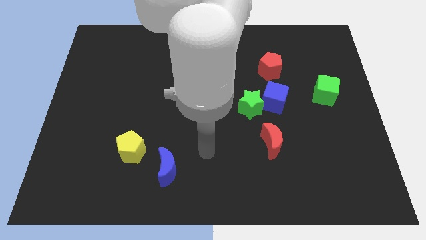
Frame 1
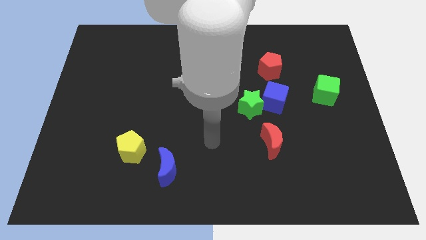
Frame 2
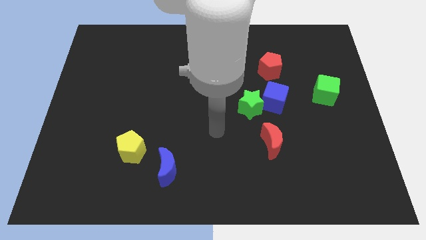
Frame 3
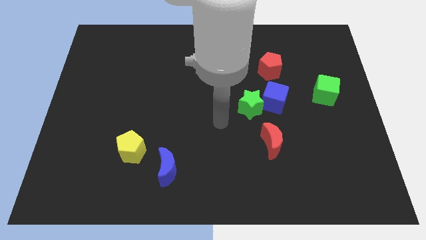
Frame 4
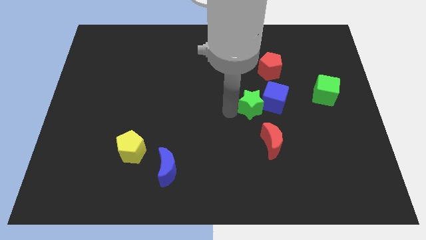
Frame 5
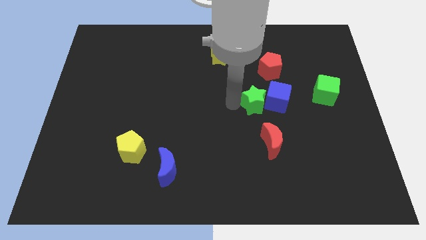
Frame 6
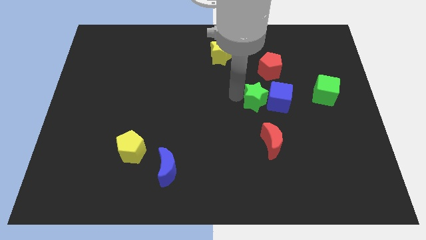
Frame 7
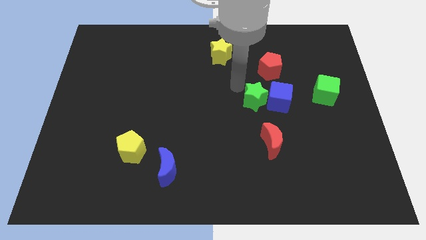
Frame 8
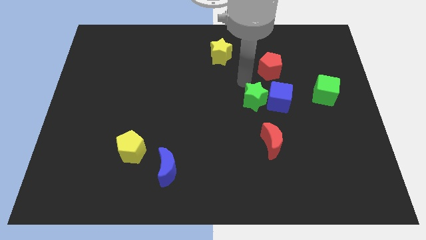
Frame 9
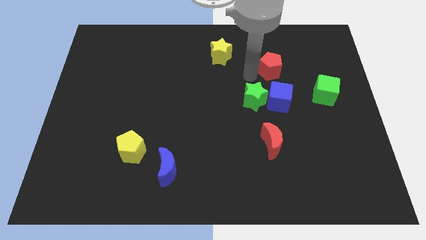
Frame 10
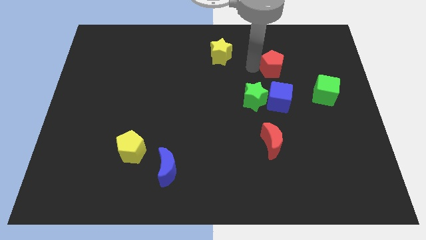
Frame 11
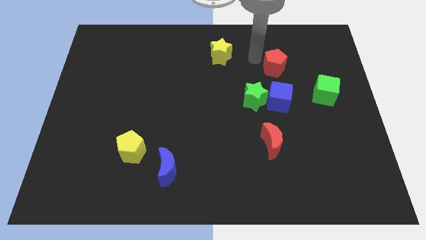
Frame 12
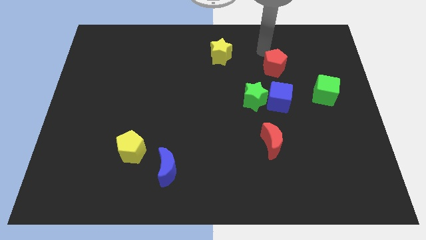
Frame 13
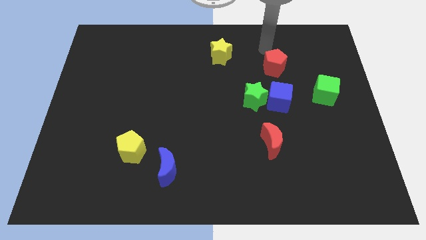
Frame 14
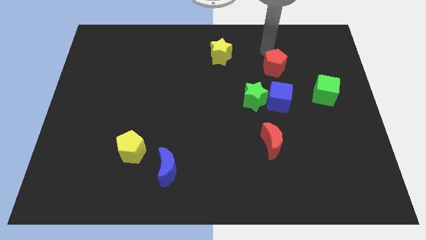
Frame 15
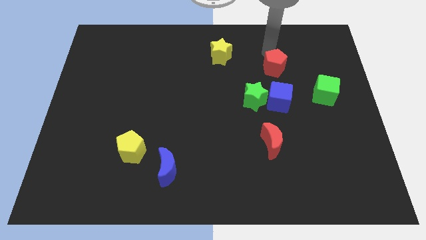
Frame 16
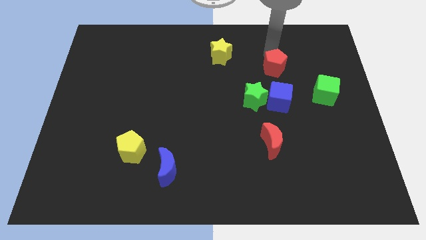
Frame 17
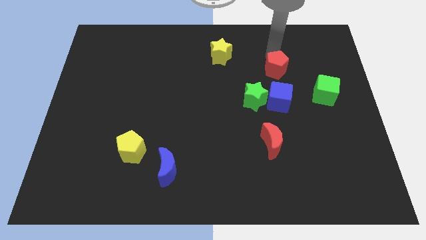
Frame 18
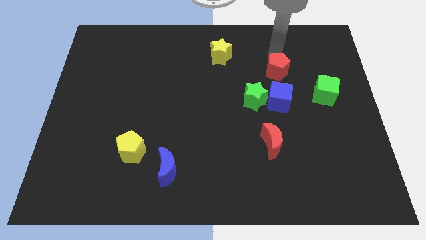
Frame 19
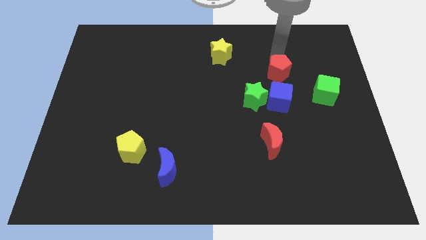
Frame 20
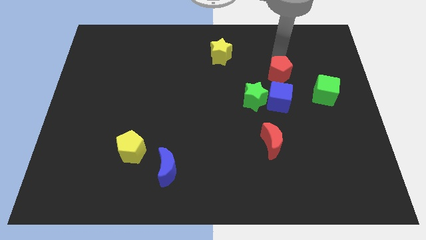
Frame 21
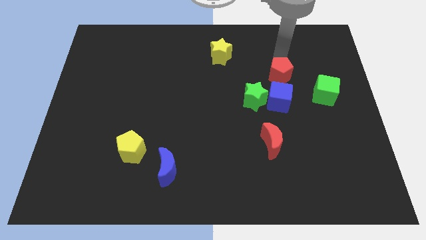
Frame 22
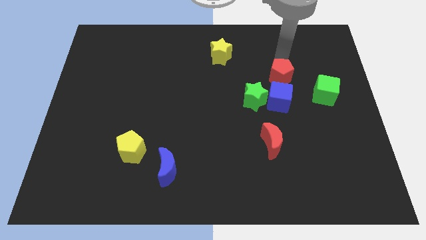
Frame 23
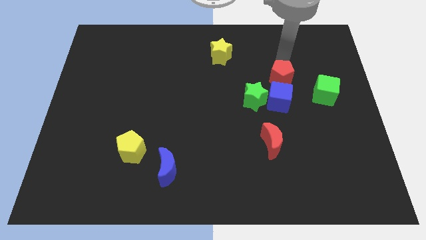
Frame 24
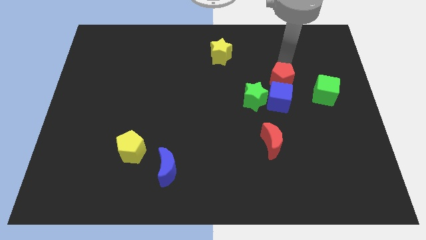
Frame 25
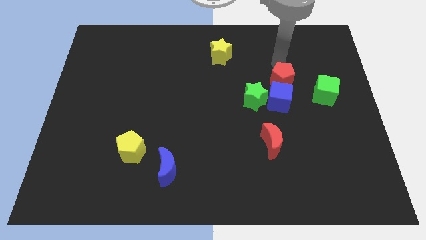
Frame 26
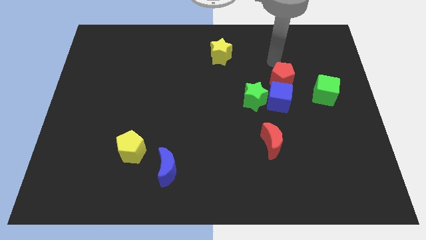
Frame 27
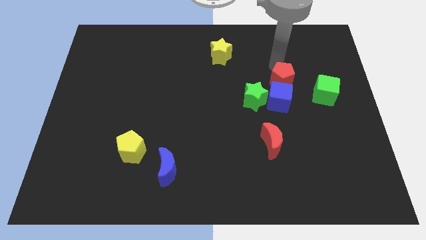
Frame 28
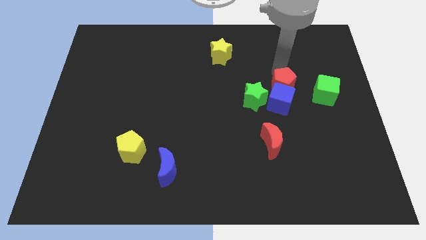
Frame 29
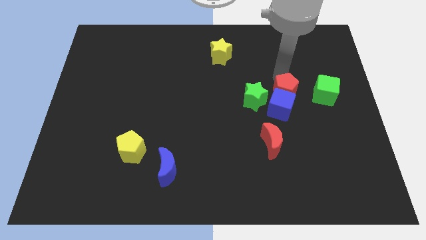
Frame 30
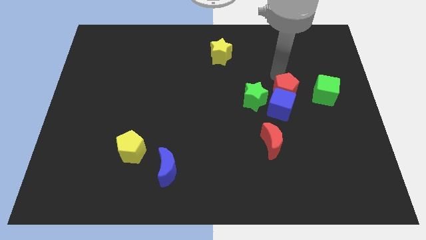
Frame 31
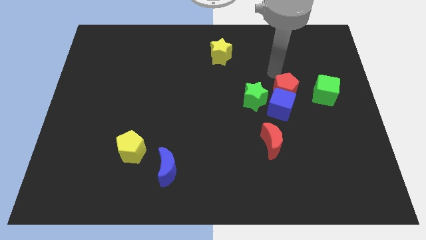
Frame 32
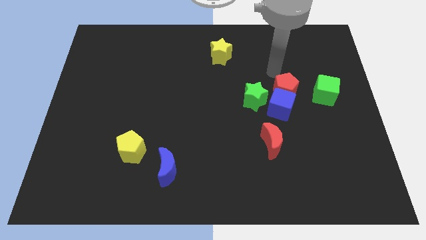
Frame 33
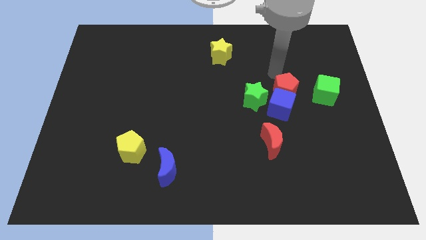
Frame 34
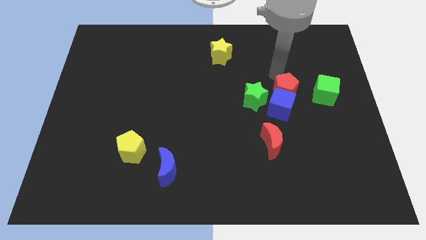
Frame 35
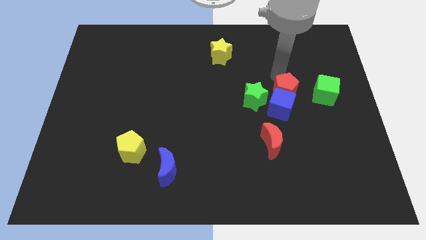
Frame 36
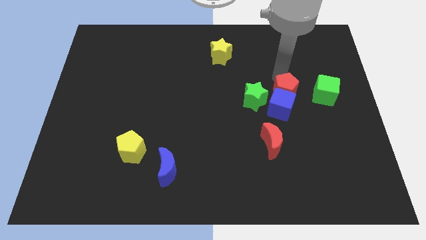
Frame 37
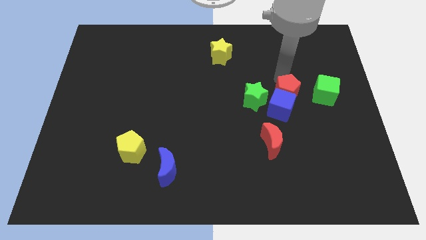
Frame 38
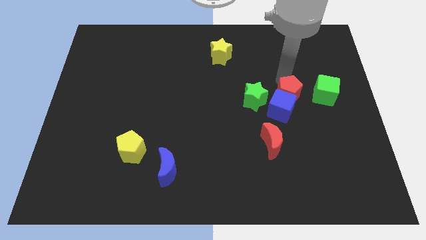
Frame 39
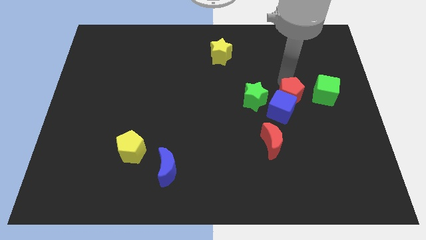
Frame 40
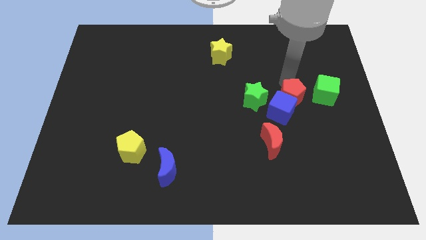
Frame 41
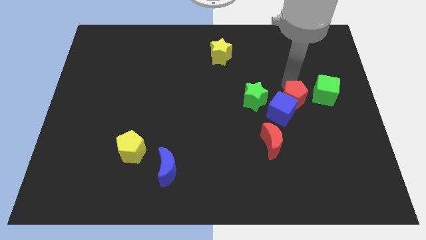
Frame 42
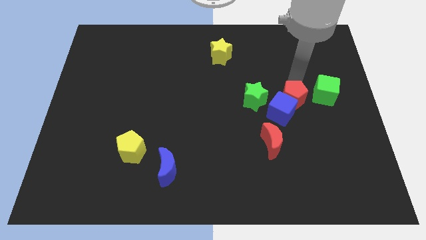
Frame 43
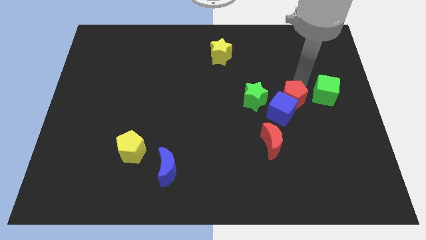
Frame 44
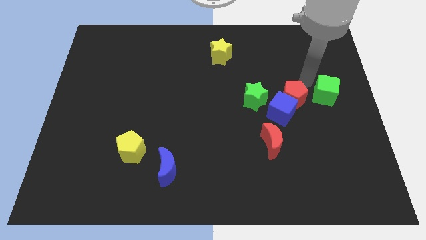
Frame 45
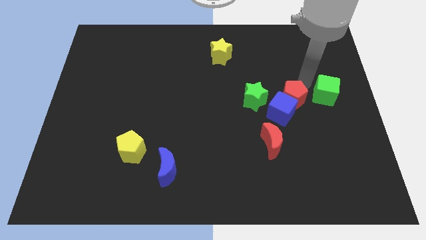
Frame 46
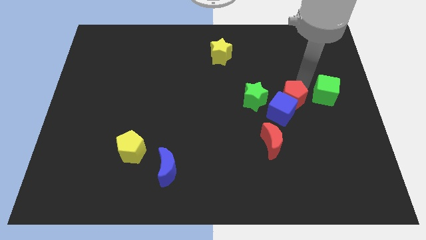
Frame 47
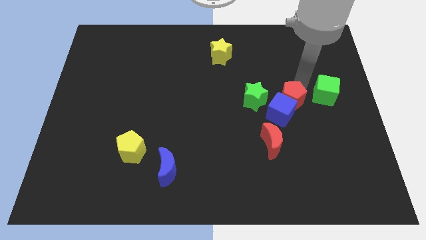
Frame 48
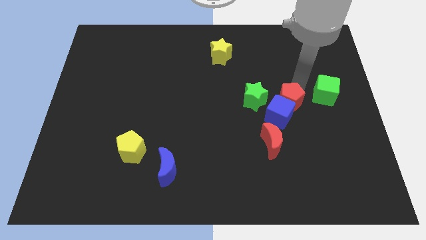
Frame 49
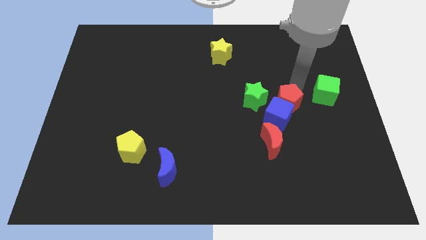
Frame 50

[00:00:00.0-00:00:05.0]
put the red pentagon diagonally down and to the right of the green star

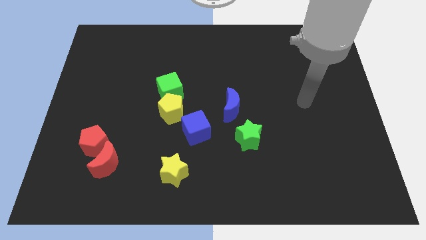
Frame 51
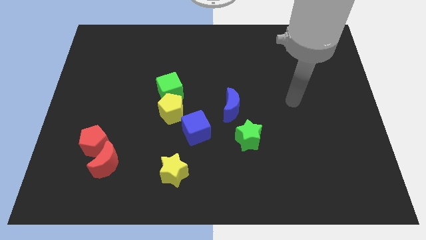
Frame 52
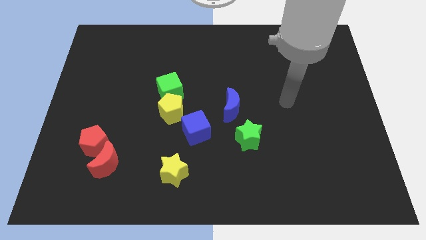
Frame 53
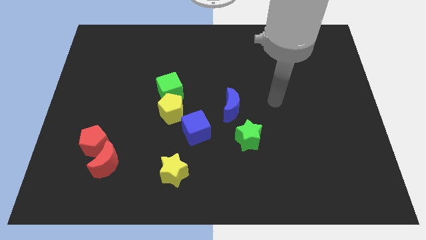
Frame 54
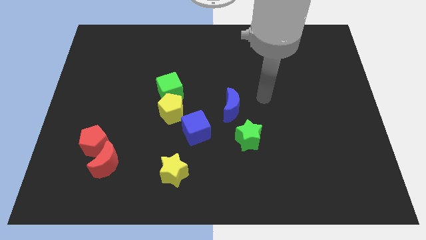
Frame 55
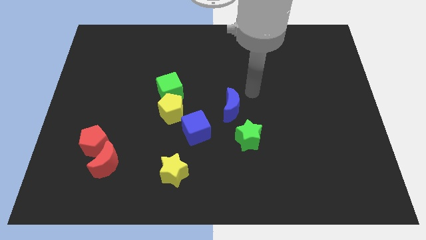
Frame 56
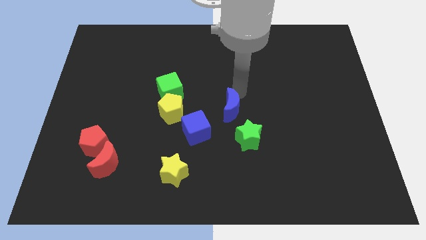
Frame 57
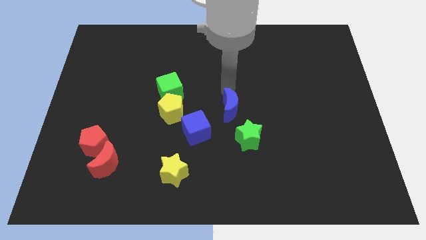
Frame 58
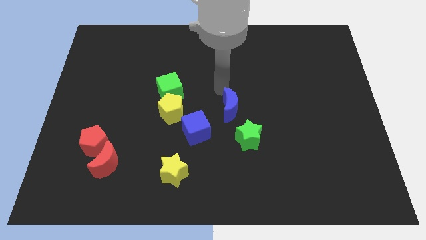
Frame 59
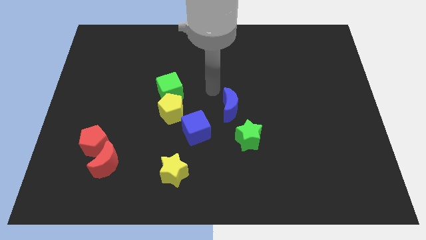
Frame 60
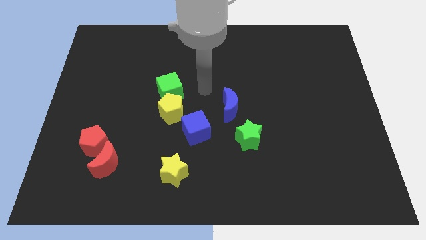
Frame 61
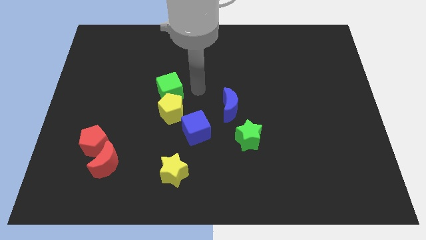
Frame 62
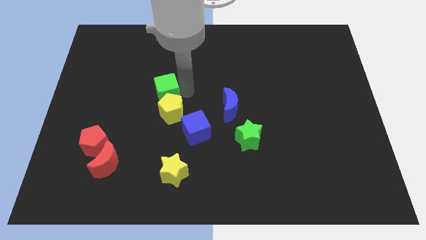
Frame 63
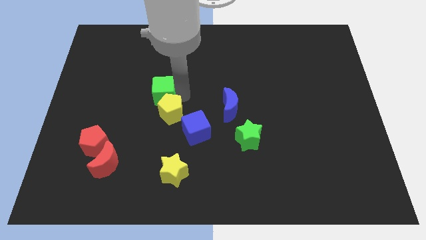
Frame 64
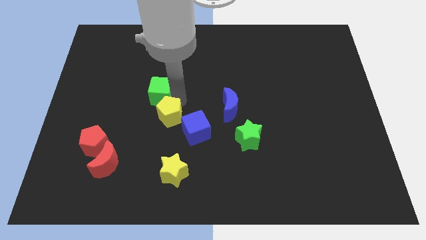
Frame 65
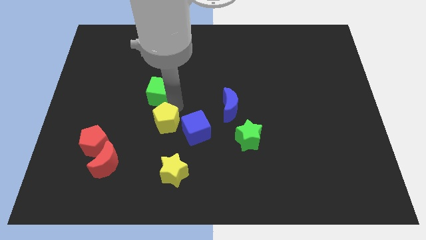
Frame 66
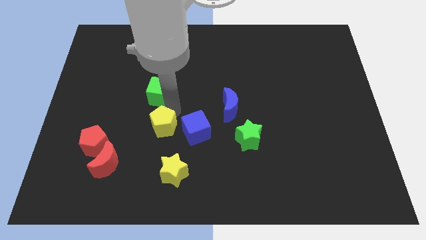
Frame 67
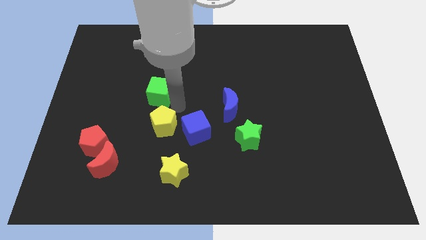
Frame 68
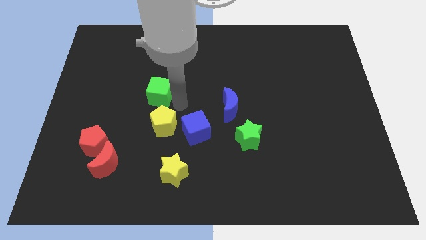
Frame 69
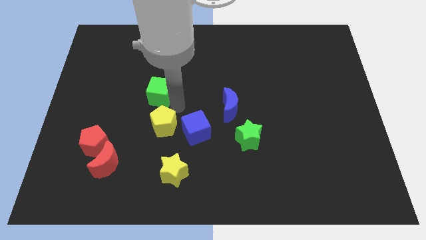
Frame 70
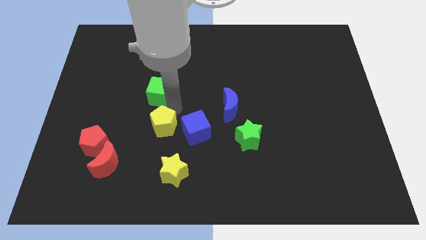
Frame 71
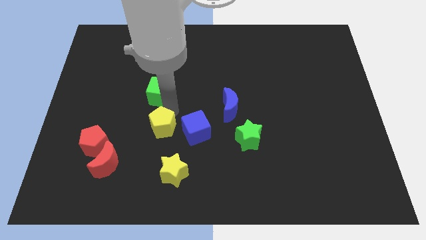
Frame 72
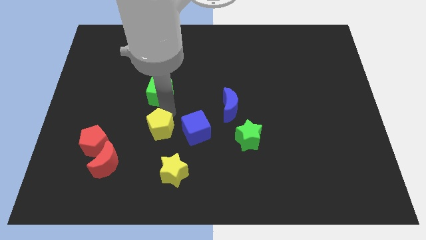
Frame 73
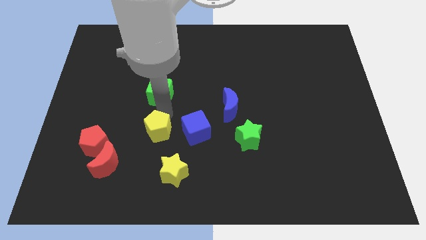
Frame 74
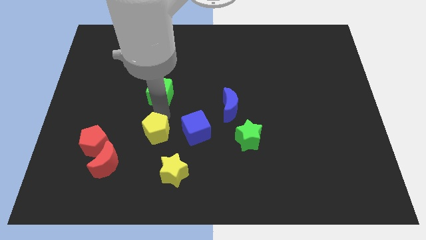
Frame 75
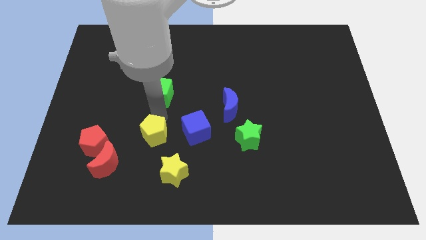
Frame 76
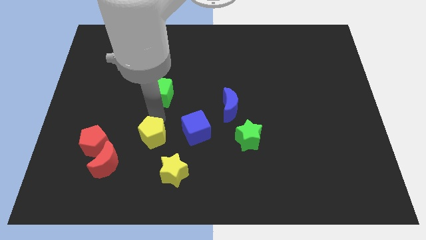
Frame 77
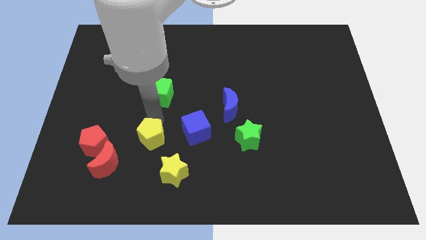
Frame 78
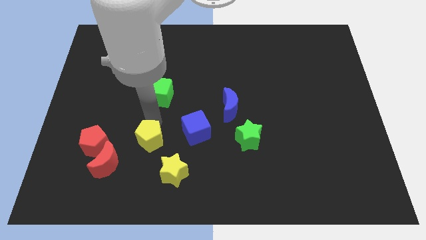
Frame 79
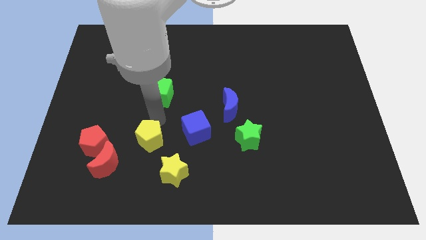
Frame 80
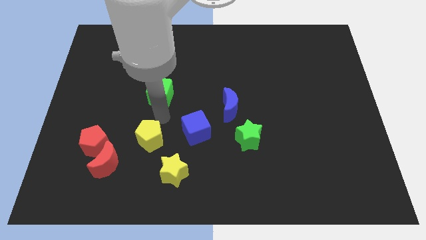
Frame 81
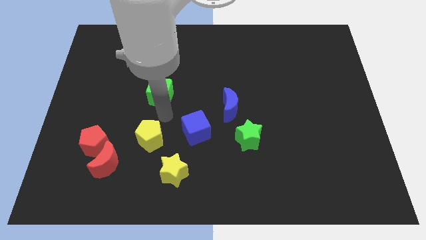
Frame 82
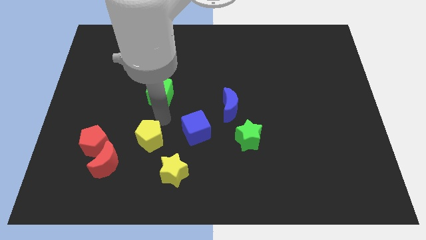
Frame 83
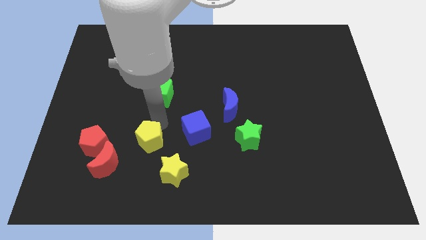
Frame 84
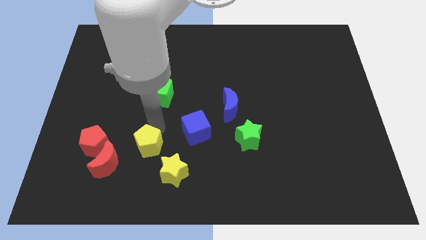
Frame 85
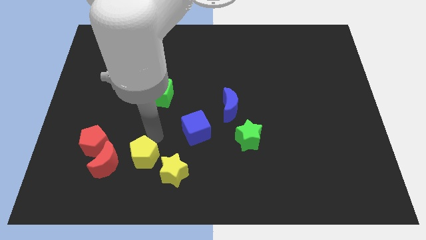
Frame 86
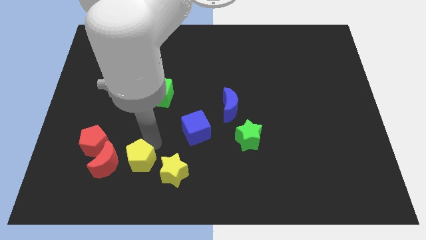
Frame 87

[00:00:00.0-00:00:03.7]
slide the yellow pentagon to the bottom right of the red pentagon
